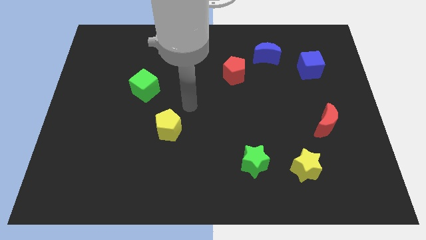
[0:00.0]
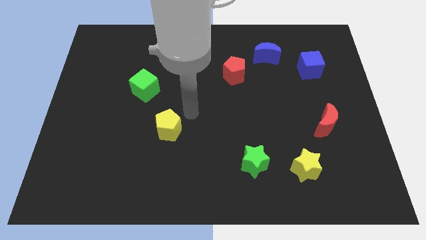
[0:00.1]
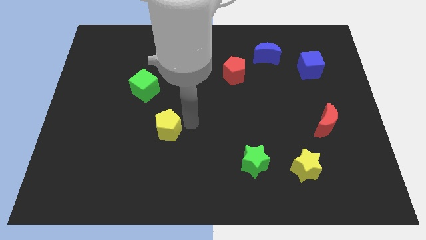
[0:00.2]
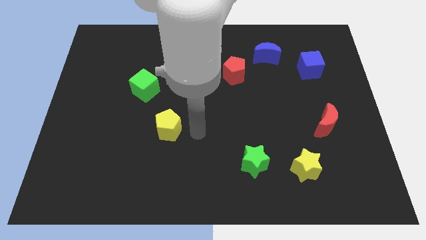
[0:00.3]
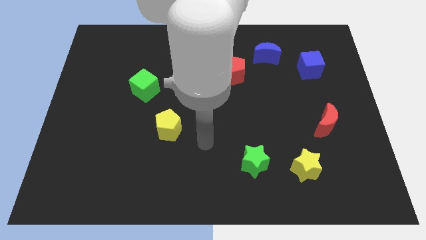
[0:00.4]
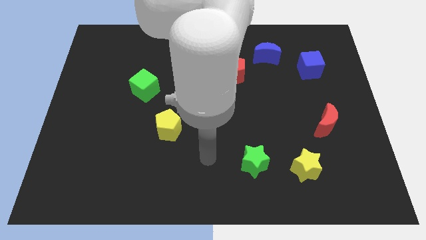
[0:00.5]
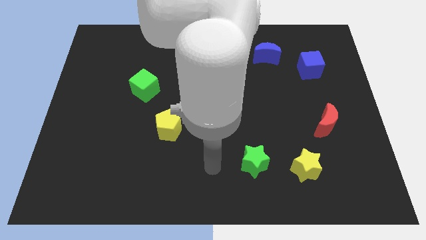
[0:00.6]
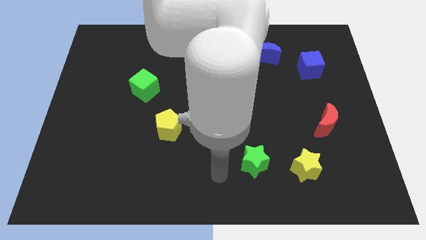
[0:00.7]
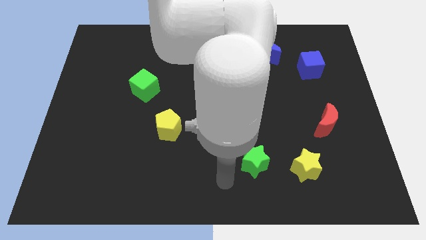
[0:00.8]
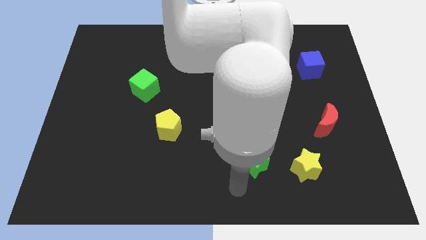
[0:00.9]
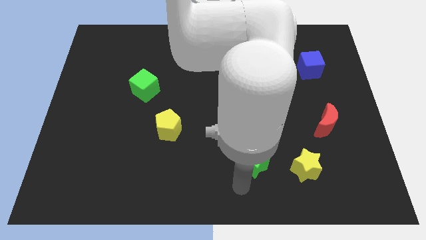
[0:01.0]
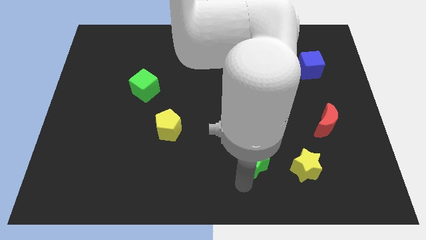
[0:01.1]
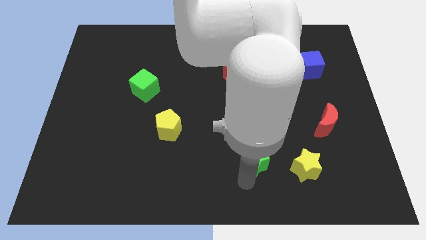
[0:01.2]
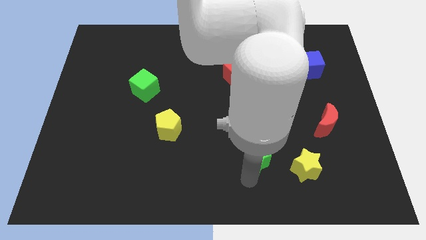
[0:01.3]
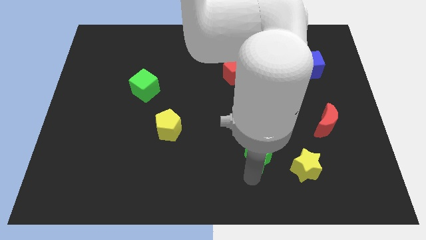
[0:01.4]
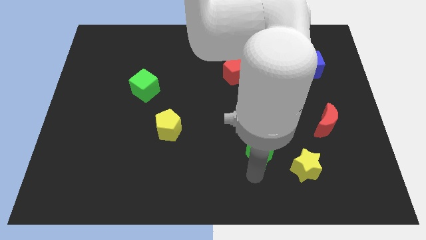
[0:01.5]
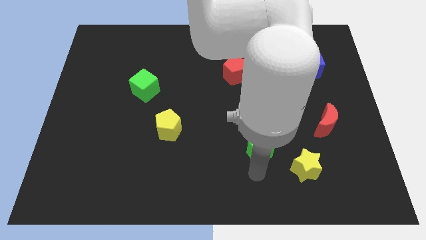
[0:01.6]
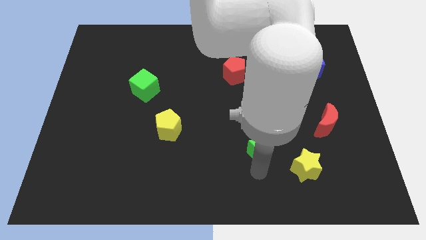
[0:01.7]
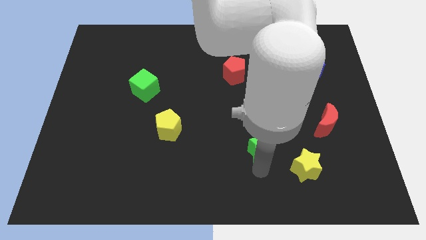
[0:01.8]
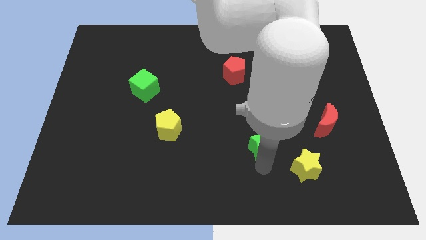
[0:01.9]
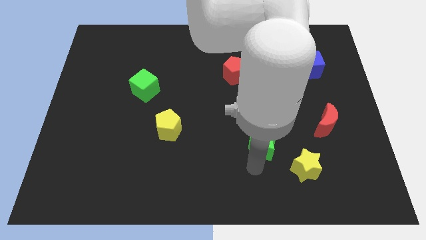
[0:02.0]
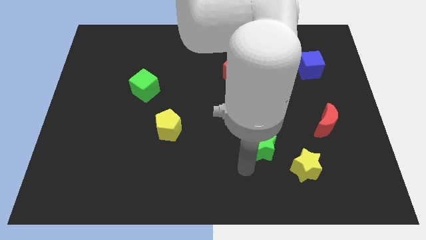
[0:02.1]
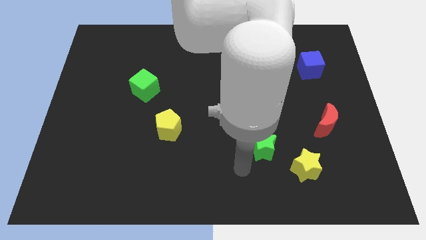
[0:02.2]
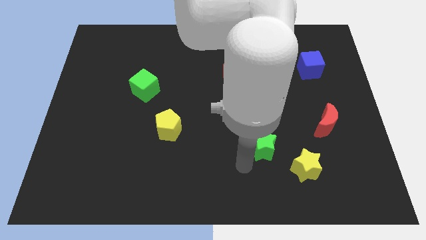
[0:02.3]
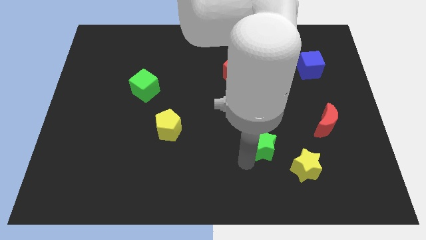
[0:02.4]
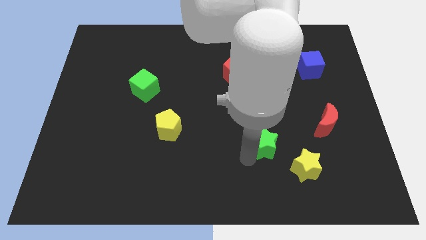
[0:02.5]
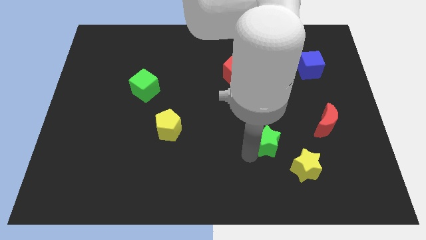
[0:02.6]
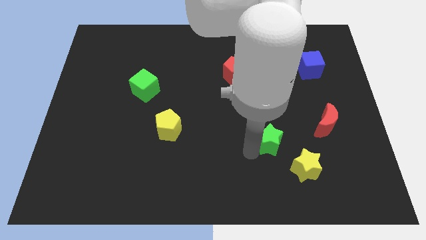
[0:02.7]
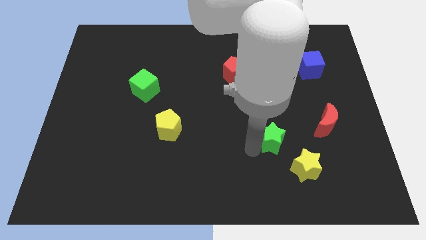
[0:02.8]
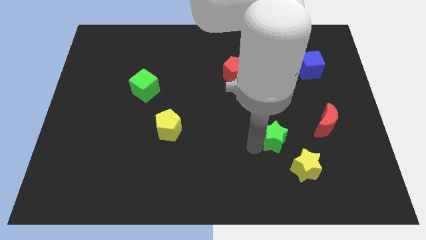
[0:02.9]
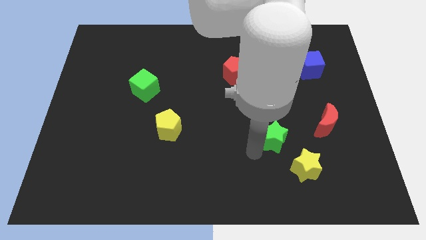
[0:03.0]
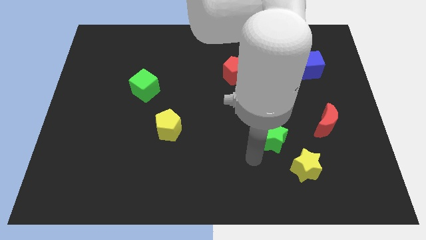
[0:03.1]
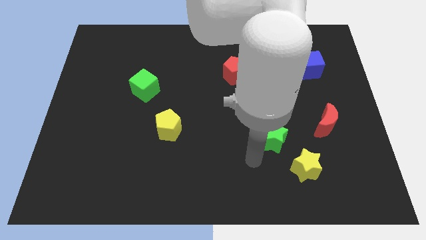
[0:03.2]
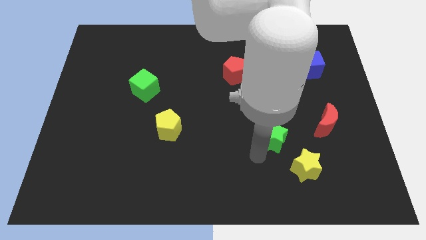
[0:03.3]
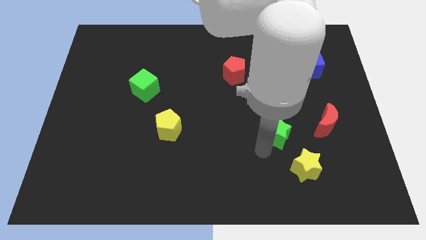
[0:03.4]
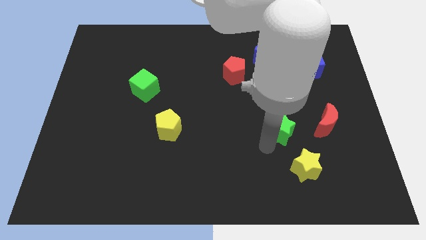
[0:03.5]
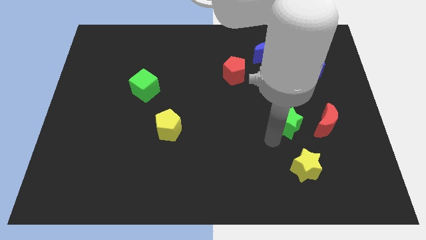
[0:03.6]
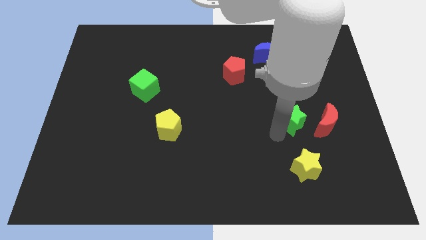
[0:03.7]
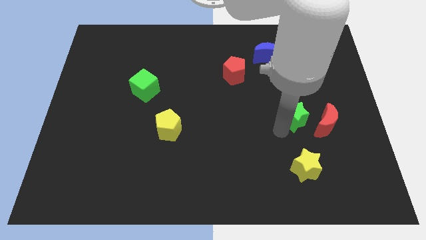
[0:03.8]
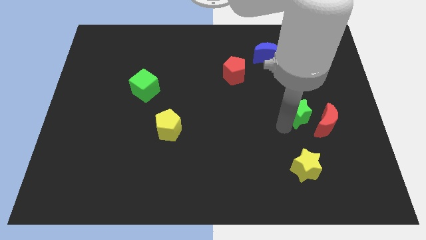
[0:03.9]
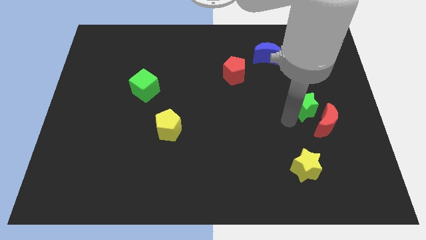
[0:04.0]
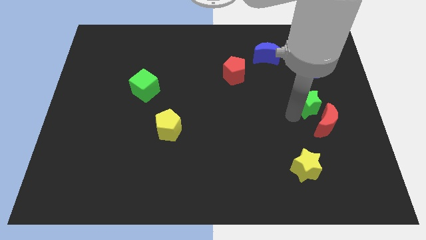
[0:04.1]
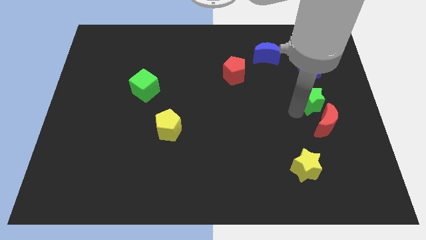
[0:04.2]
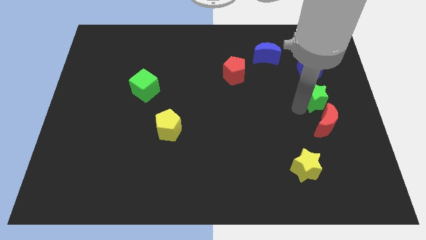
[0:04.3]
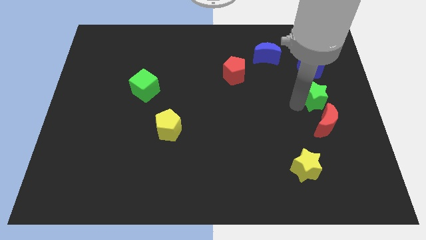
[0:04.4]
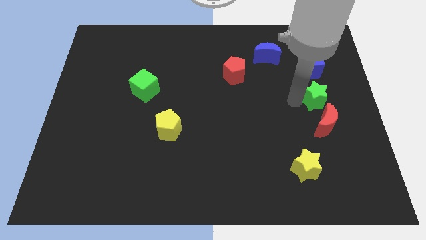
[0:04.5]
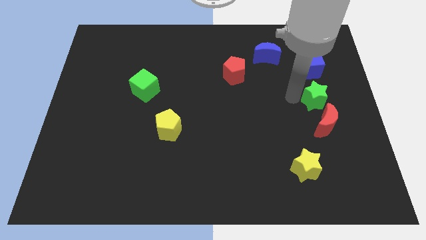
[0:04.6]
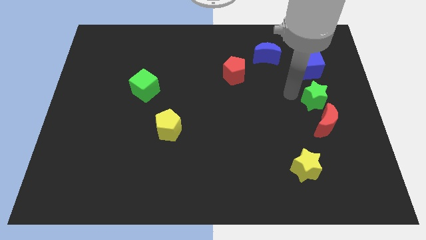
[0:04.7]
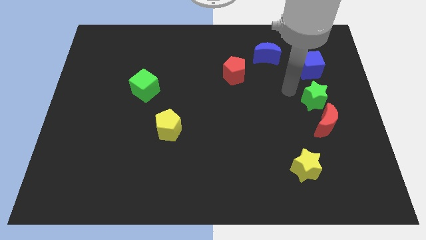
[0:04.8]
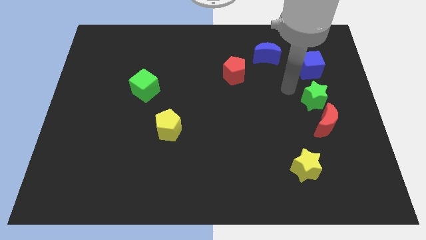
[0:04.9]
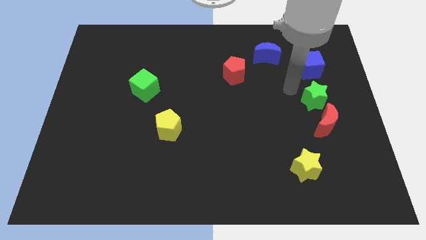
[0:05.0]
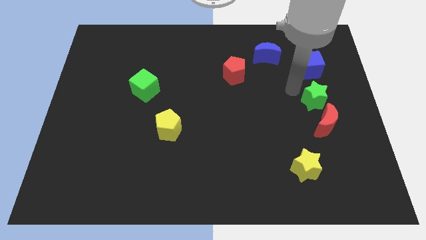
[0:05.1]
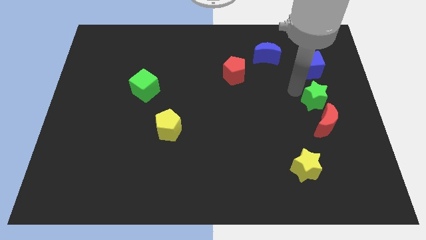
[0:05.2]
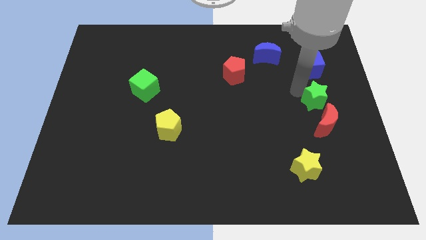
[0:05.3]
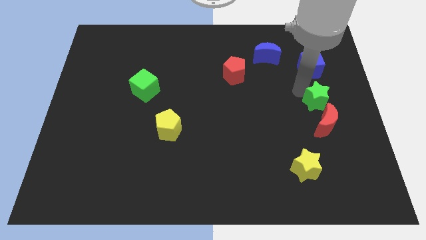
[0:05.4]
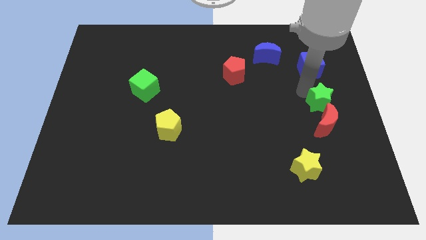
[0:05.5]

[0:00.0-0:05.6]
move the green star to the right side

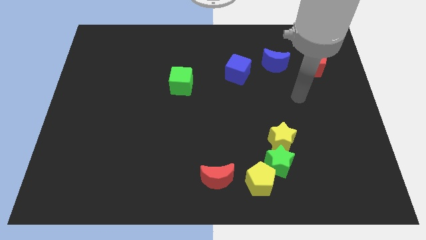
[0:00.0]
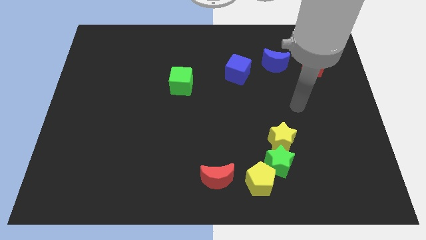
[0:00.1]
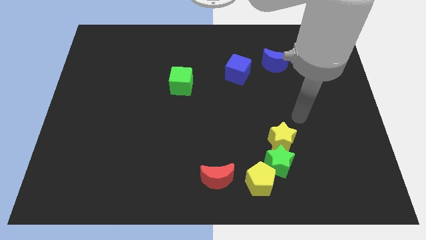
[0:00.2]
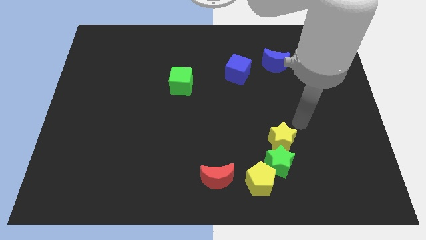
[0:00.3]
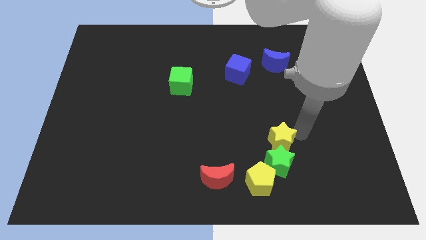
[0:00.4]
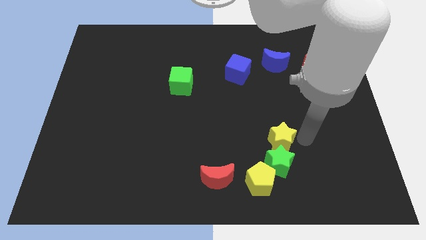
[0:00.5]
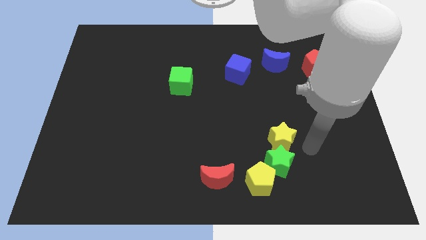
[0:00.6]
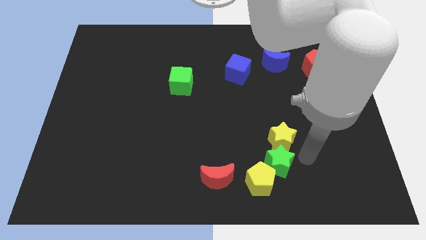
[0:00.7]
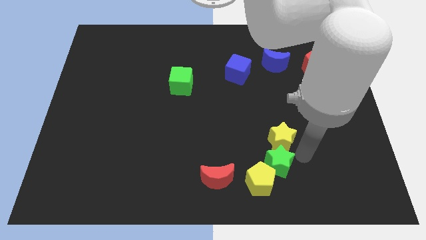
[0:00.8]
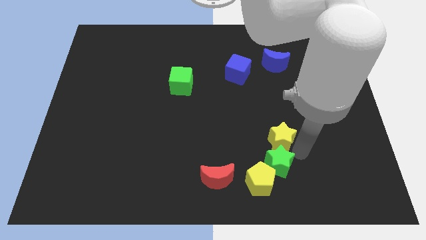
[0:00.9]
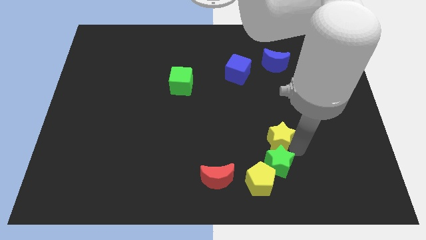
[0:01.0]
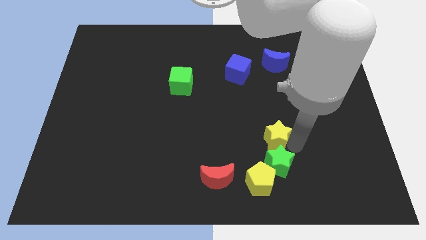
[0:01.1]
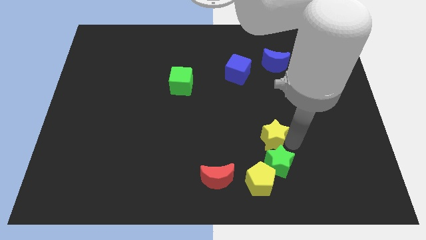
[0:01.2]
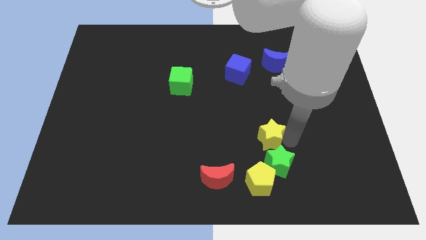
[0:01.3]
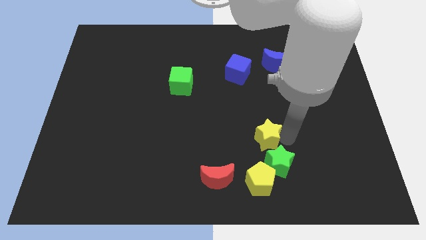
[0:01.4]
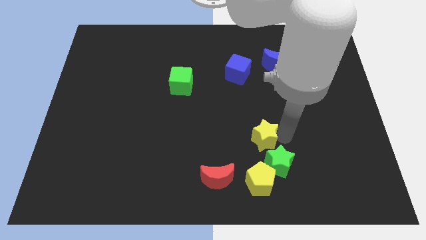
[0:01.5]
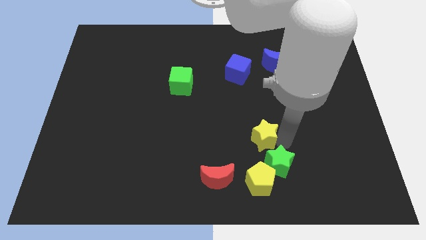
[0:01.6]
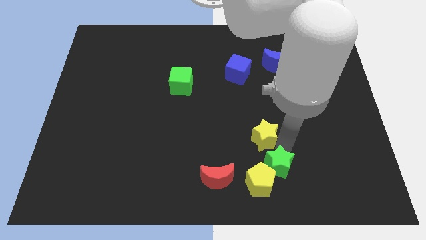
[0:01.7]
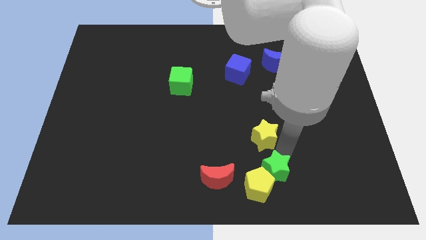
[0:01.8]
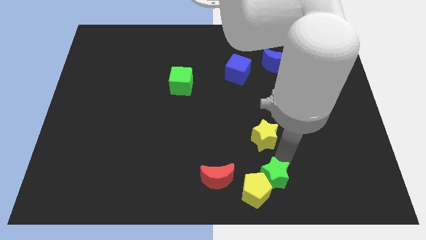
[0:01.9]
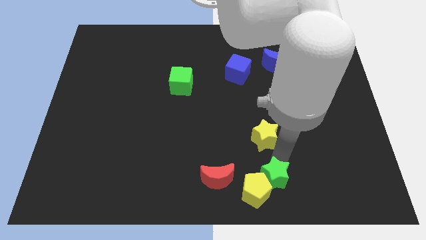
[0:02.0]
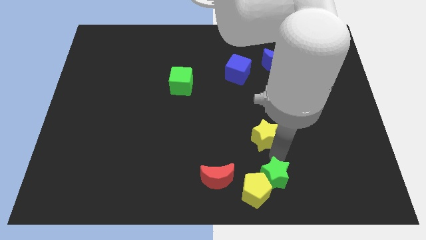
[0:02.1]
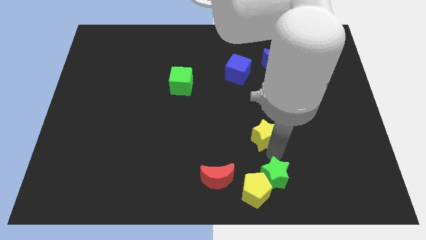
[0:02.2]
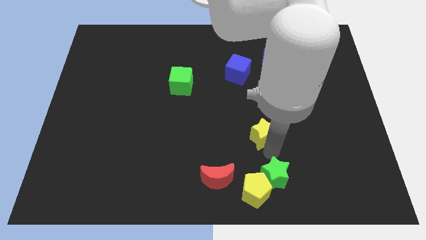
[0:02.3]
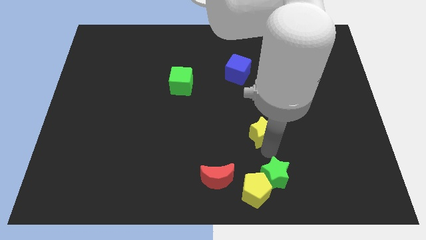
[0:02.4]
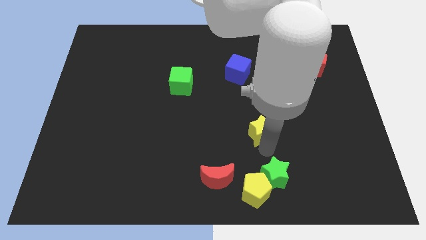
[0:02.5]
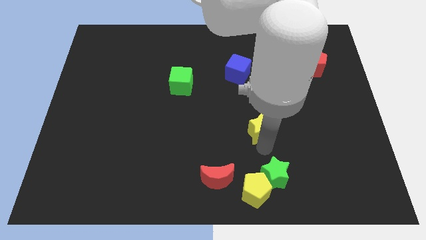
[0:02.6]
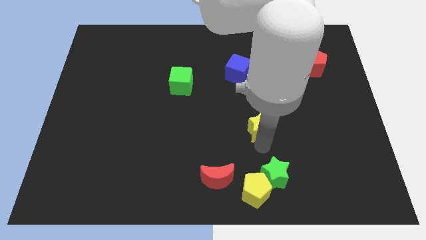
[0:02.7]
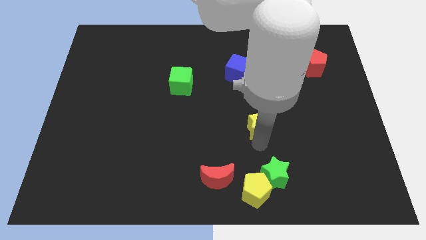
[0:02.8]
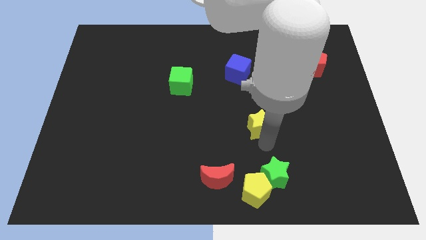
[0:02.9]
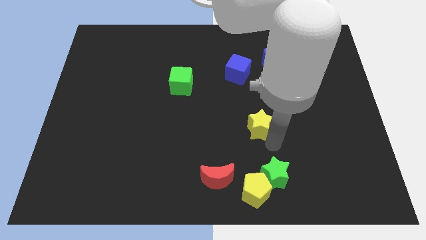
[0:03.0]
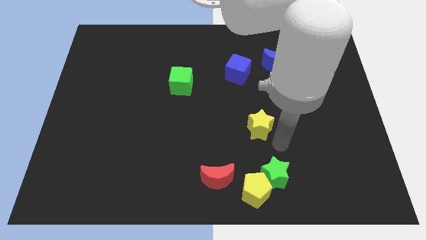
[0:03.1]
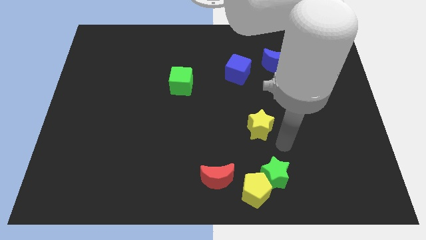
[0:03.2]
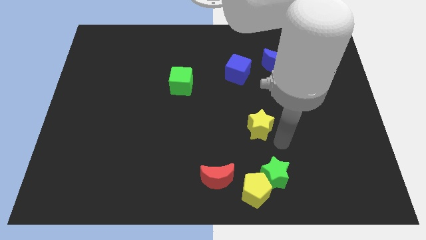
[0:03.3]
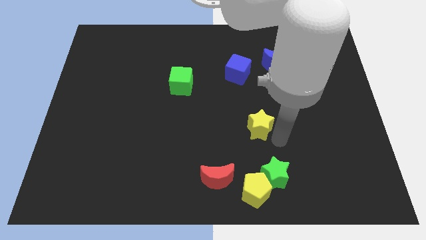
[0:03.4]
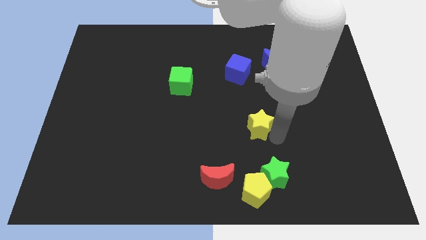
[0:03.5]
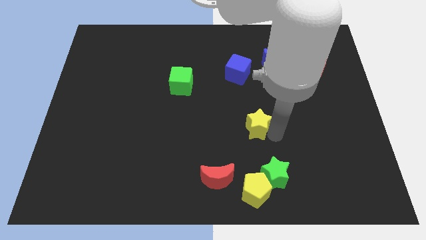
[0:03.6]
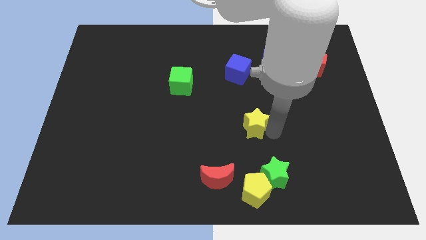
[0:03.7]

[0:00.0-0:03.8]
put the yellow star to the middle of the board
